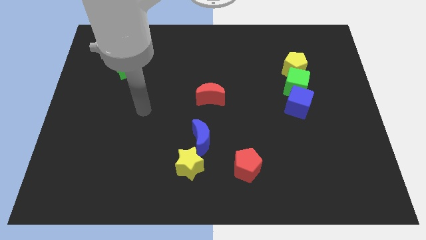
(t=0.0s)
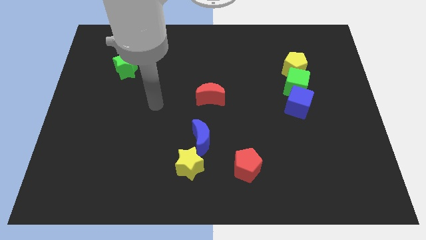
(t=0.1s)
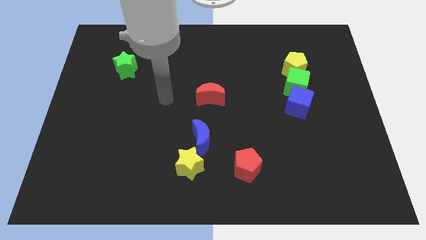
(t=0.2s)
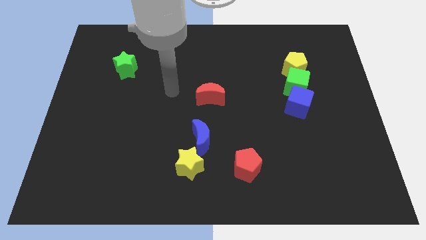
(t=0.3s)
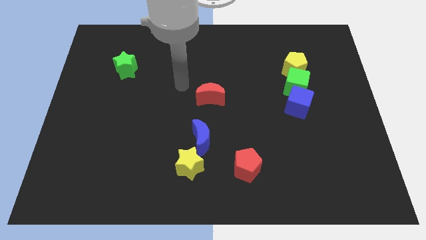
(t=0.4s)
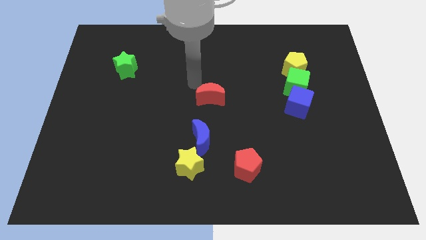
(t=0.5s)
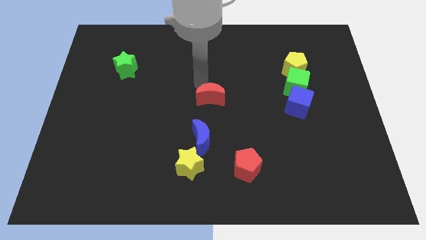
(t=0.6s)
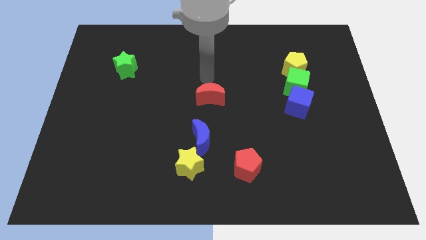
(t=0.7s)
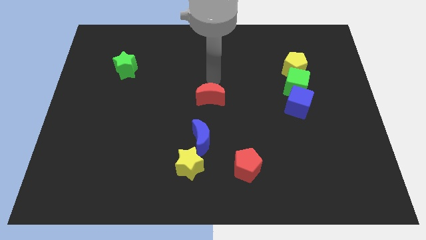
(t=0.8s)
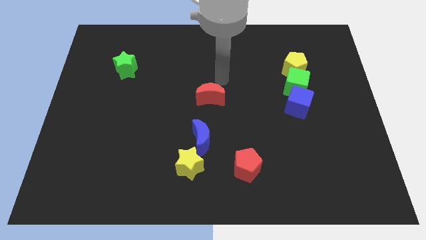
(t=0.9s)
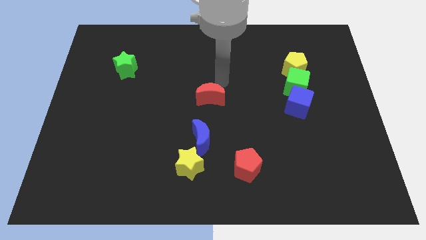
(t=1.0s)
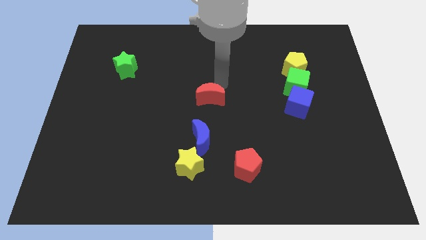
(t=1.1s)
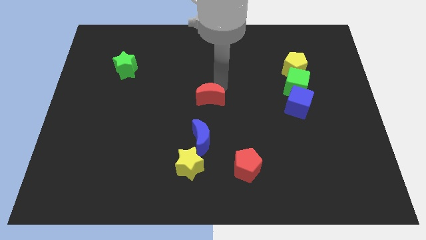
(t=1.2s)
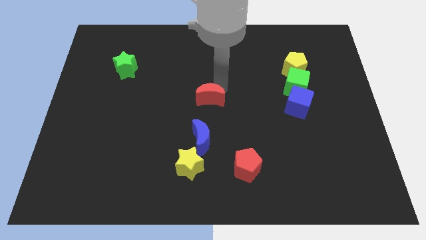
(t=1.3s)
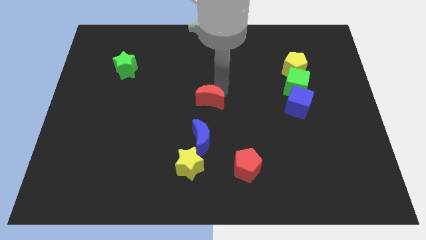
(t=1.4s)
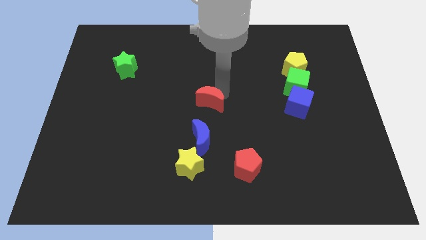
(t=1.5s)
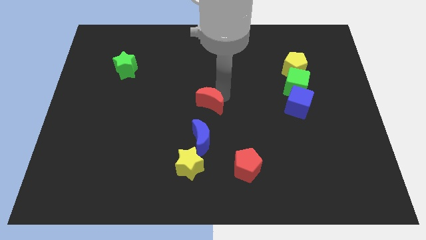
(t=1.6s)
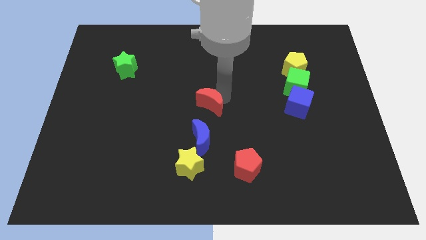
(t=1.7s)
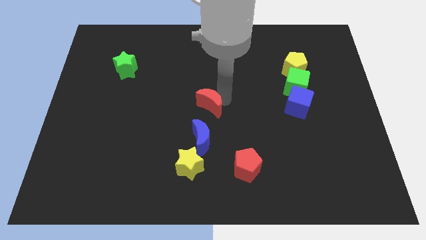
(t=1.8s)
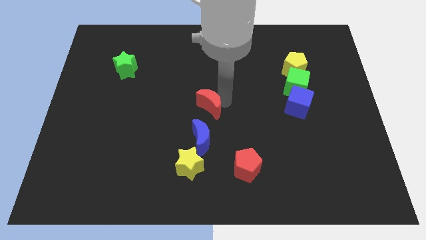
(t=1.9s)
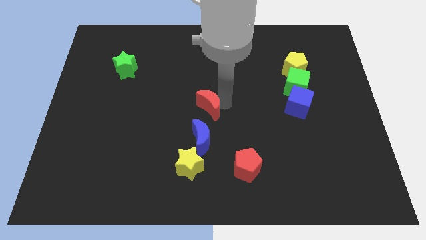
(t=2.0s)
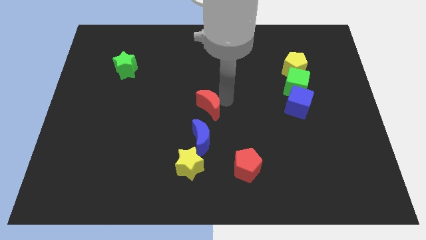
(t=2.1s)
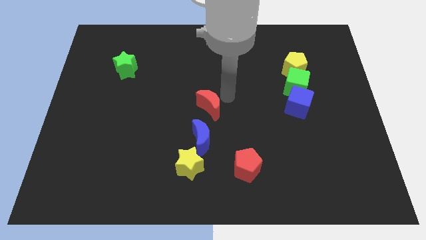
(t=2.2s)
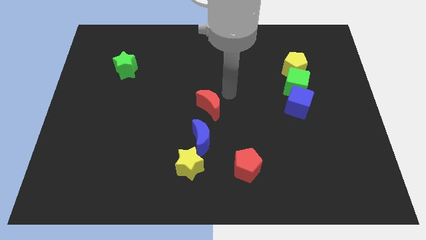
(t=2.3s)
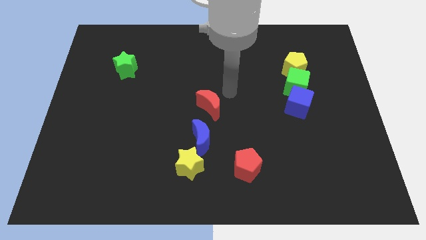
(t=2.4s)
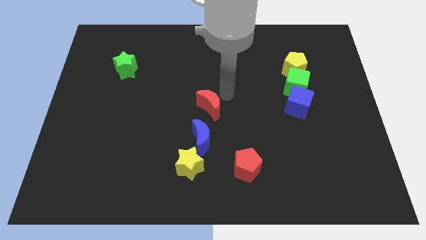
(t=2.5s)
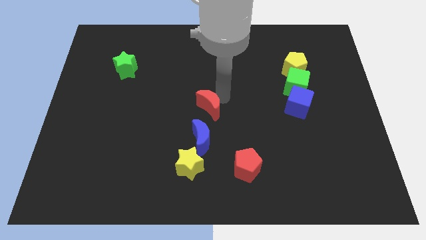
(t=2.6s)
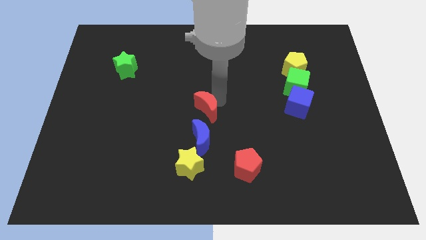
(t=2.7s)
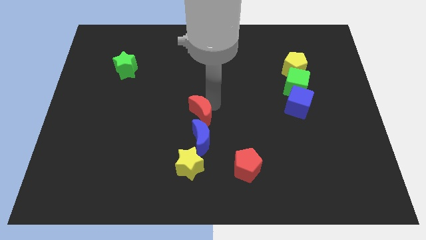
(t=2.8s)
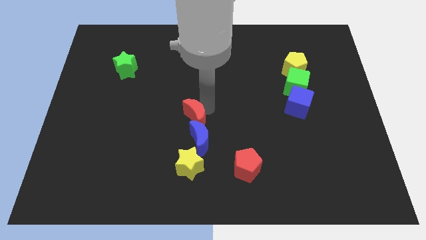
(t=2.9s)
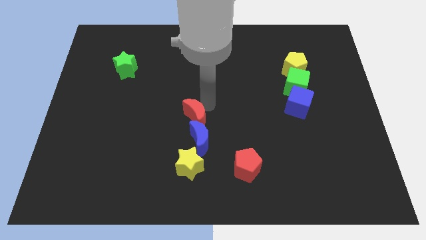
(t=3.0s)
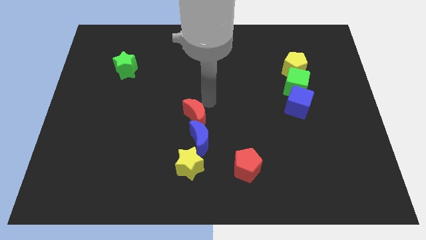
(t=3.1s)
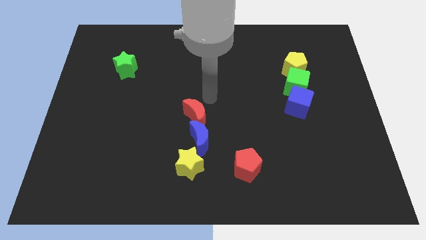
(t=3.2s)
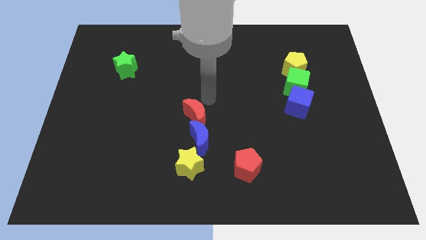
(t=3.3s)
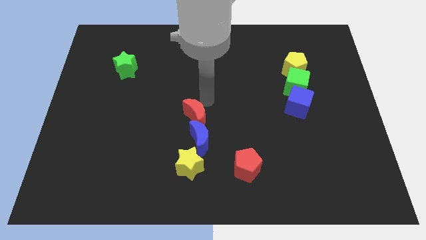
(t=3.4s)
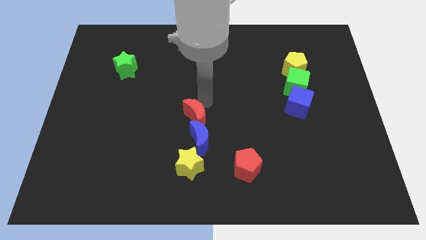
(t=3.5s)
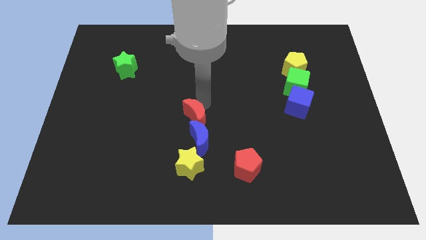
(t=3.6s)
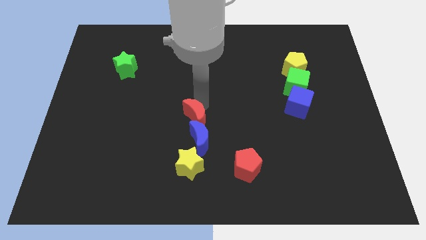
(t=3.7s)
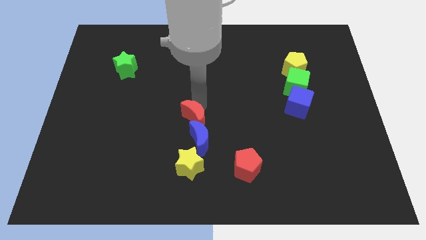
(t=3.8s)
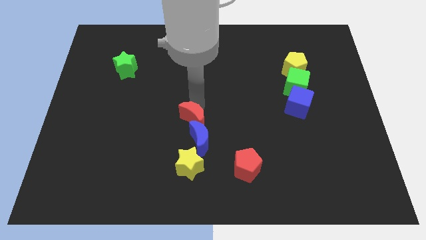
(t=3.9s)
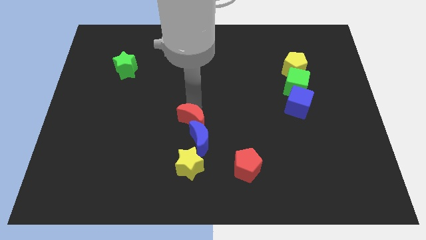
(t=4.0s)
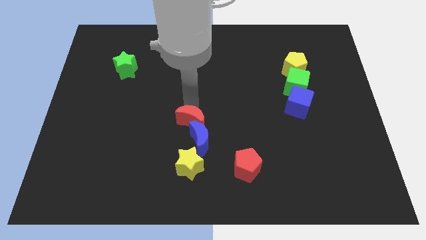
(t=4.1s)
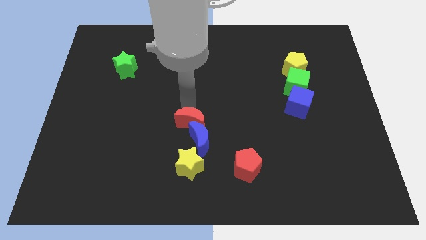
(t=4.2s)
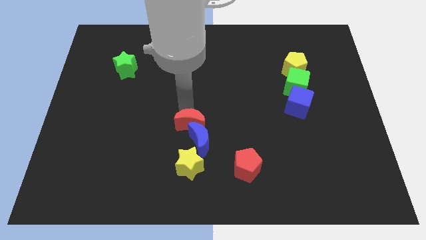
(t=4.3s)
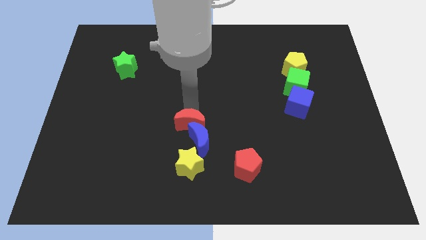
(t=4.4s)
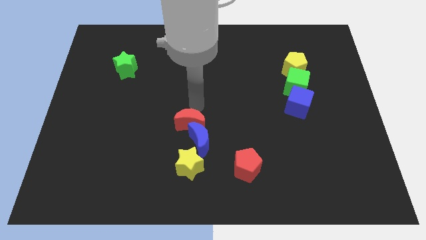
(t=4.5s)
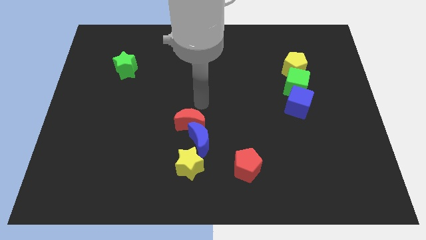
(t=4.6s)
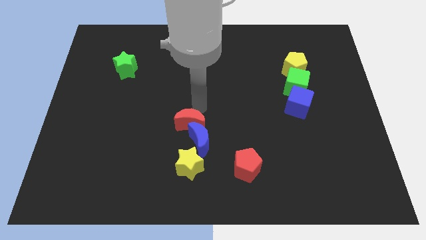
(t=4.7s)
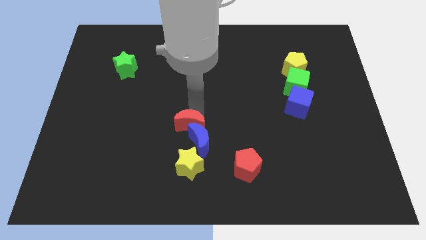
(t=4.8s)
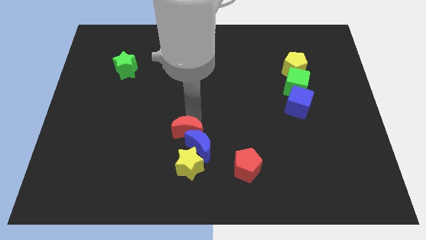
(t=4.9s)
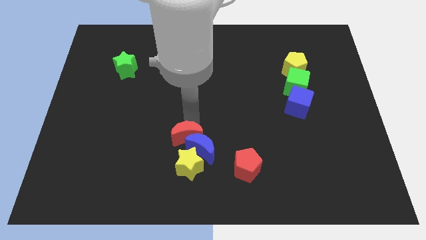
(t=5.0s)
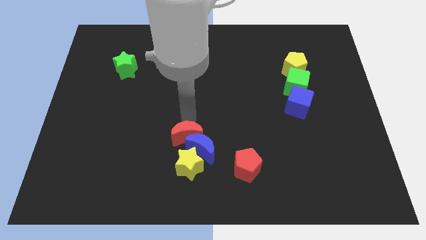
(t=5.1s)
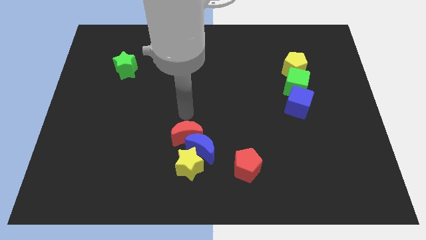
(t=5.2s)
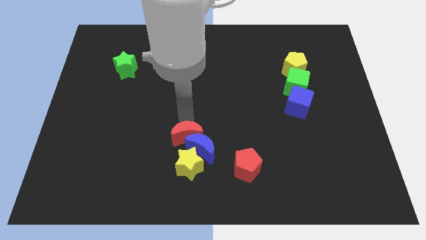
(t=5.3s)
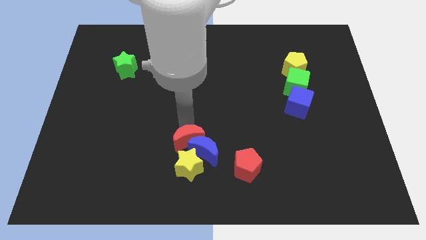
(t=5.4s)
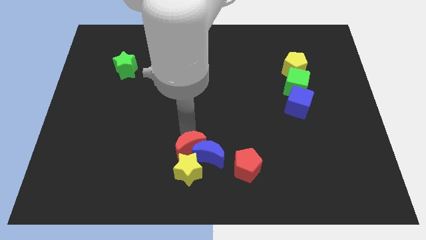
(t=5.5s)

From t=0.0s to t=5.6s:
put the red moon to the yellow star

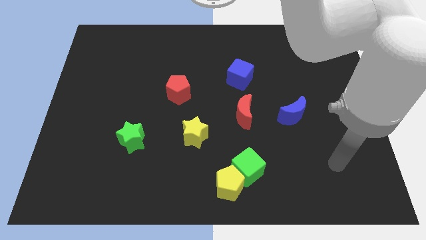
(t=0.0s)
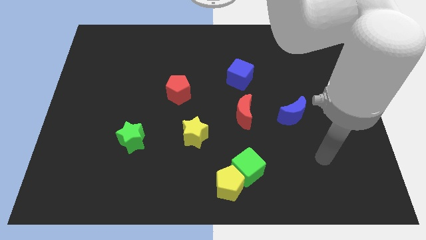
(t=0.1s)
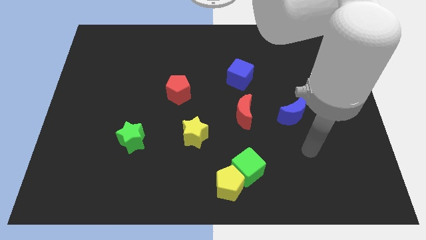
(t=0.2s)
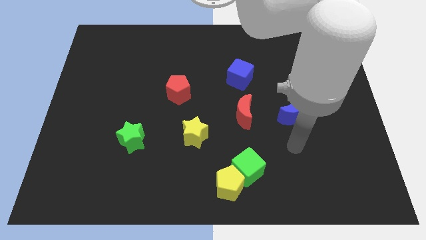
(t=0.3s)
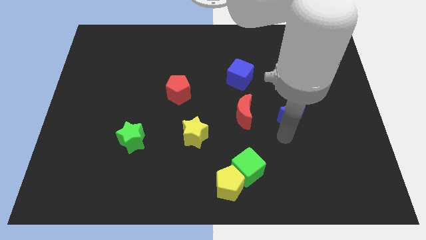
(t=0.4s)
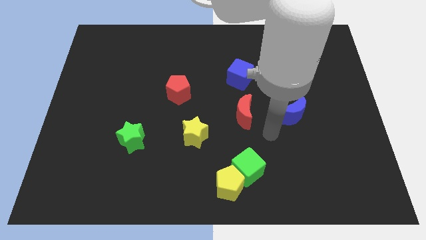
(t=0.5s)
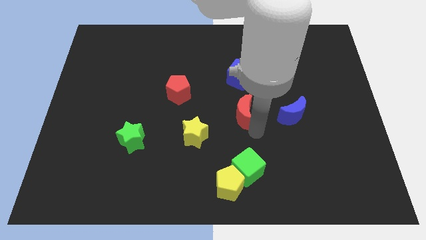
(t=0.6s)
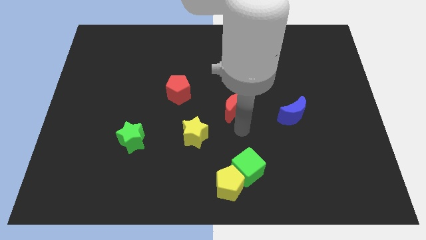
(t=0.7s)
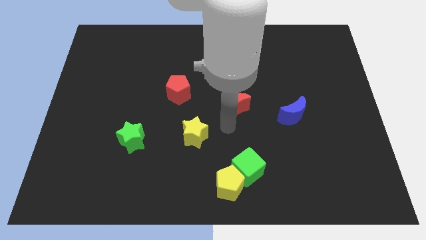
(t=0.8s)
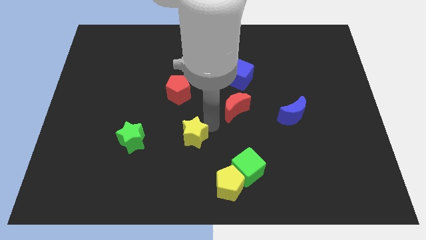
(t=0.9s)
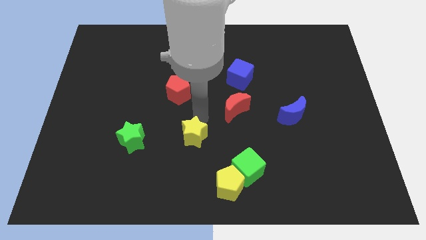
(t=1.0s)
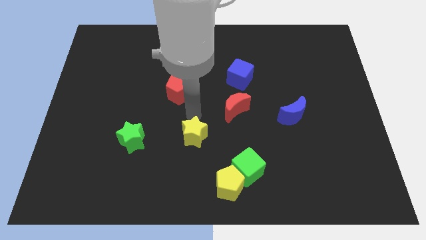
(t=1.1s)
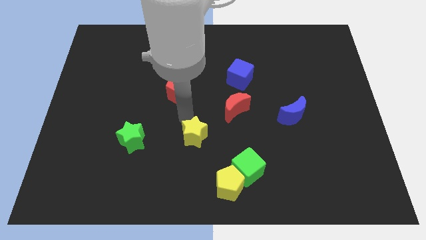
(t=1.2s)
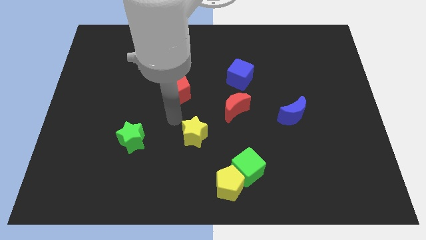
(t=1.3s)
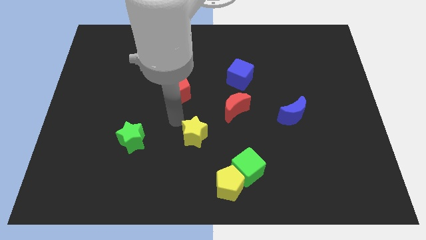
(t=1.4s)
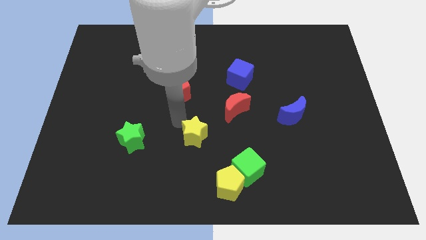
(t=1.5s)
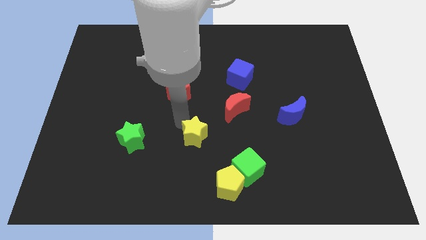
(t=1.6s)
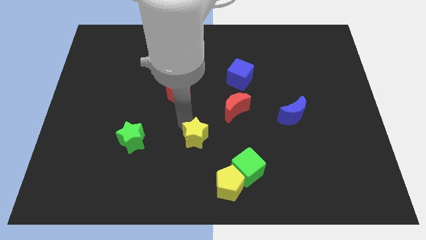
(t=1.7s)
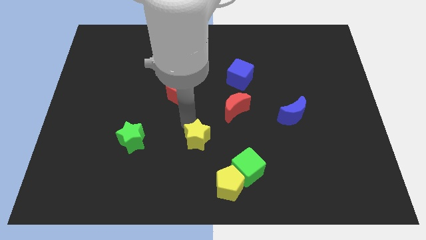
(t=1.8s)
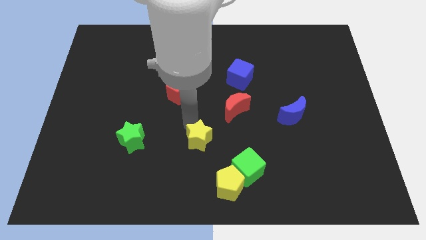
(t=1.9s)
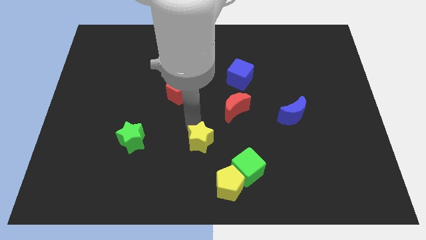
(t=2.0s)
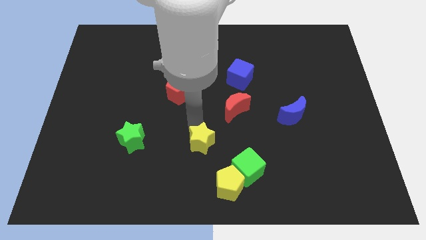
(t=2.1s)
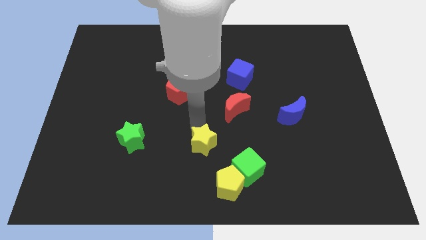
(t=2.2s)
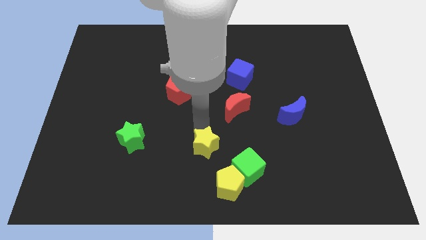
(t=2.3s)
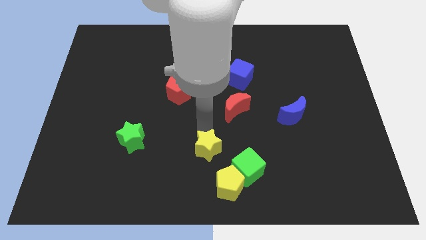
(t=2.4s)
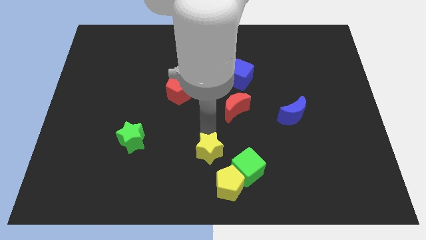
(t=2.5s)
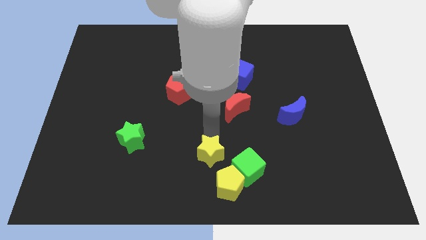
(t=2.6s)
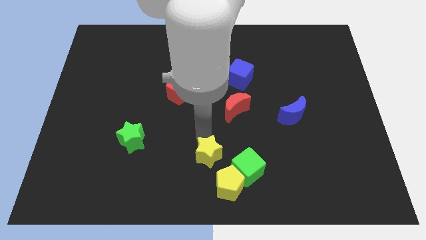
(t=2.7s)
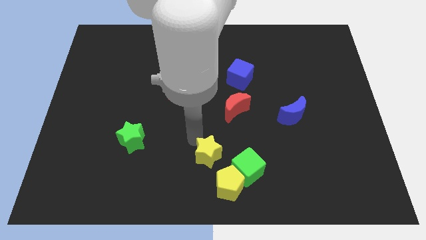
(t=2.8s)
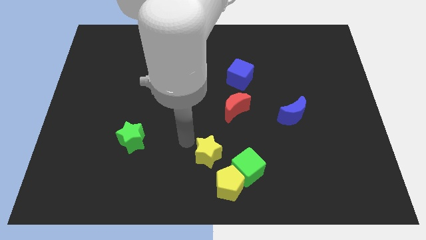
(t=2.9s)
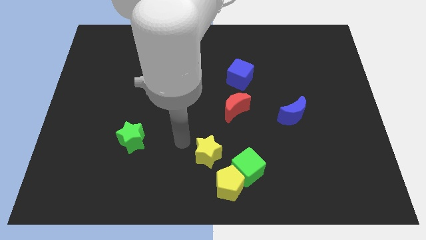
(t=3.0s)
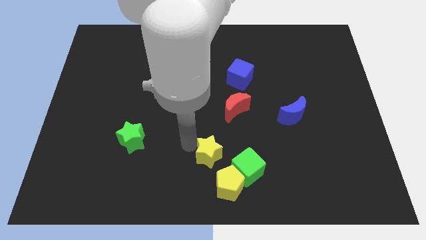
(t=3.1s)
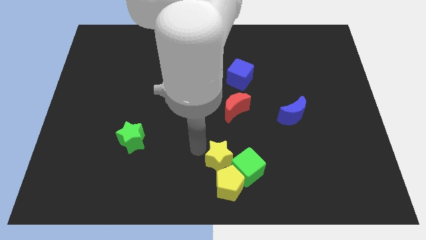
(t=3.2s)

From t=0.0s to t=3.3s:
put the yellow star close to the green cube
